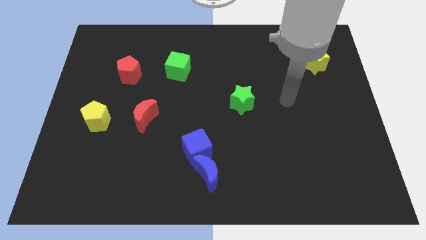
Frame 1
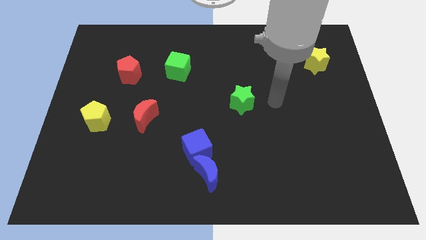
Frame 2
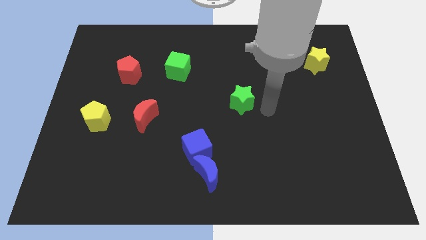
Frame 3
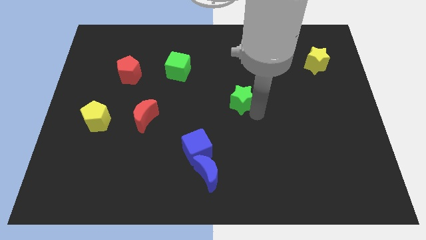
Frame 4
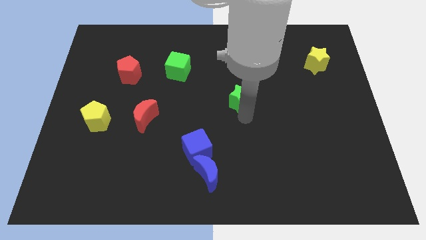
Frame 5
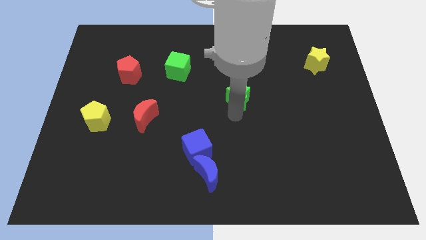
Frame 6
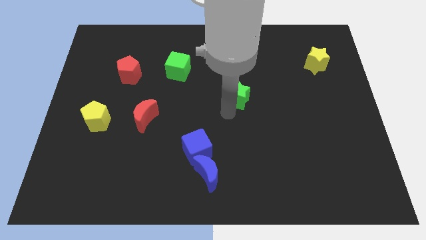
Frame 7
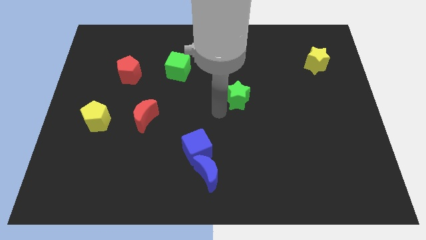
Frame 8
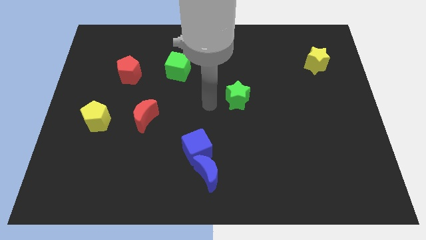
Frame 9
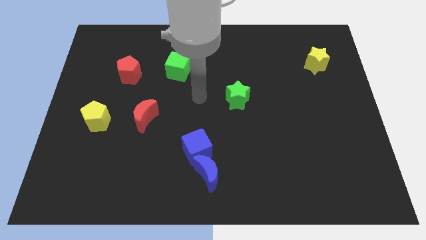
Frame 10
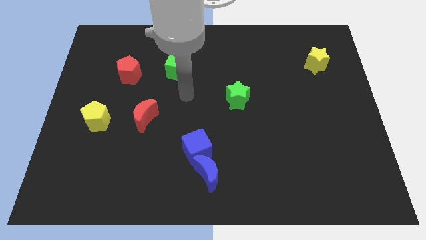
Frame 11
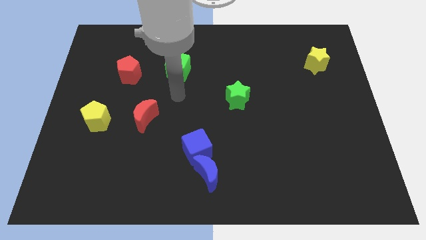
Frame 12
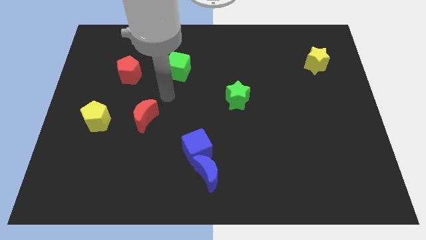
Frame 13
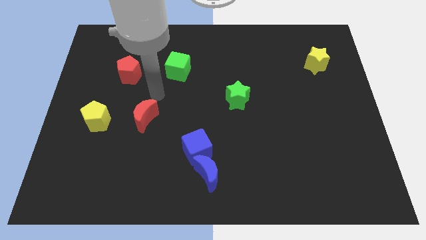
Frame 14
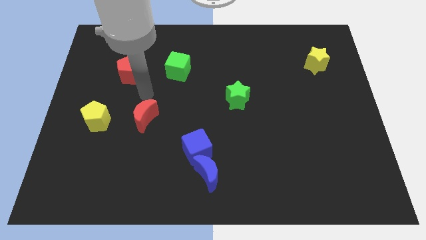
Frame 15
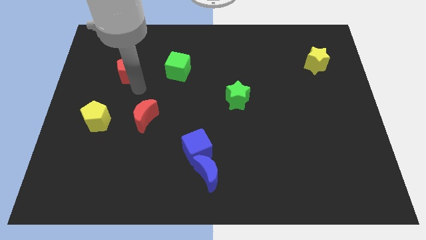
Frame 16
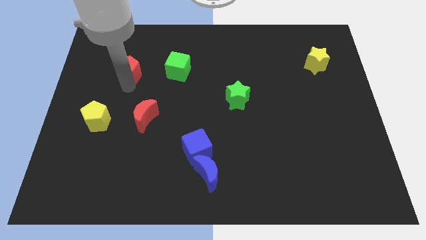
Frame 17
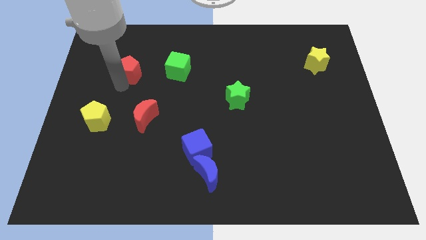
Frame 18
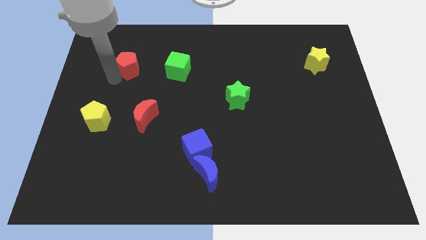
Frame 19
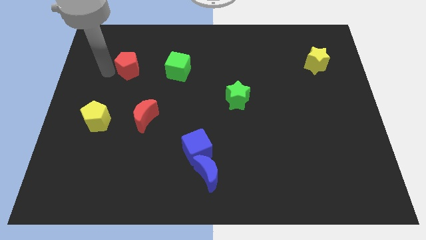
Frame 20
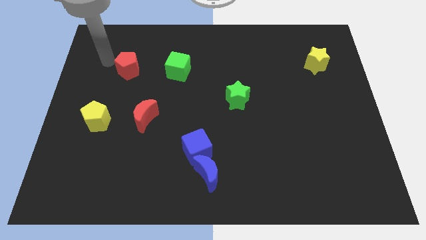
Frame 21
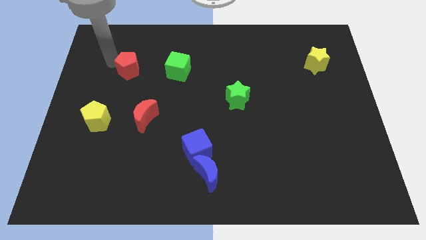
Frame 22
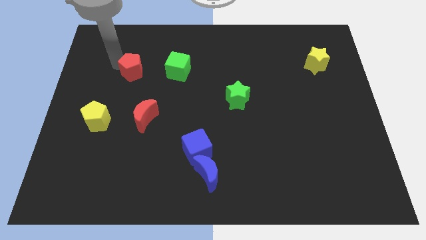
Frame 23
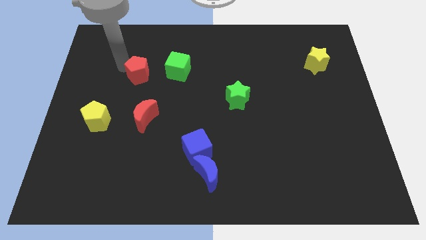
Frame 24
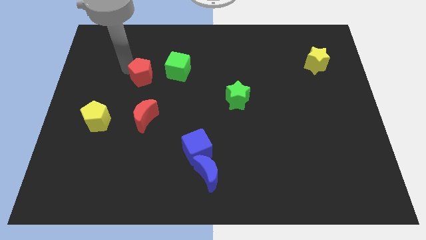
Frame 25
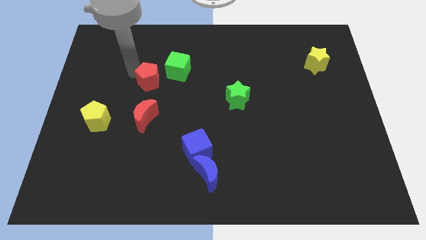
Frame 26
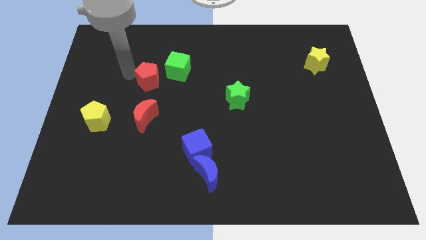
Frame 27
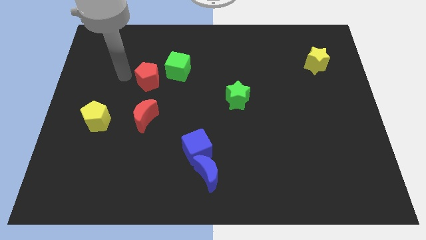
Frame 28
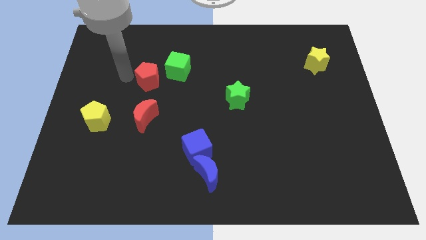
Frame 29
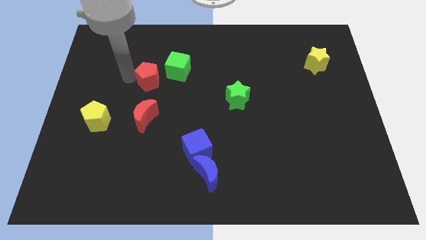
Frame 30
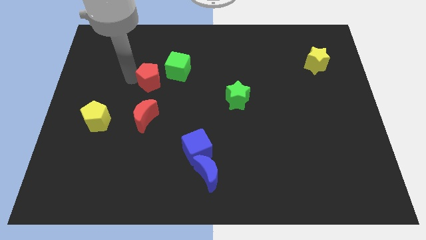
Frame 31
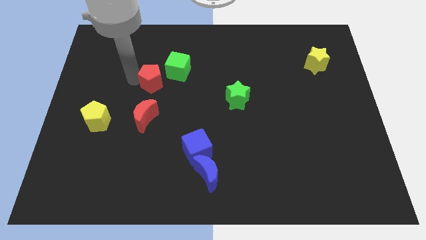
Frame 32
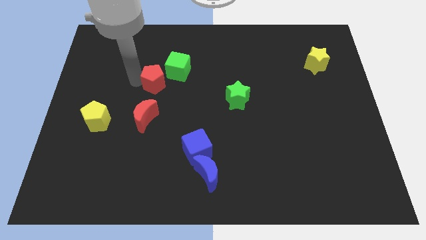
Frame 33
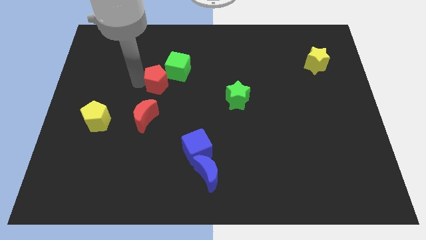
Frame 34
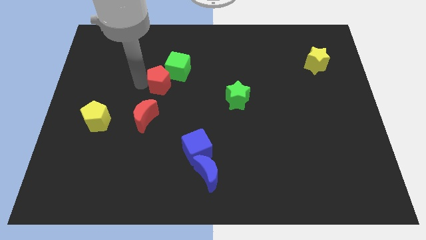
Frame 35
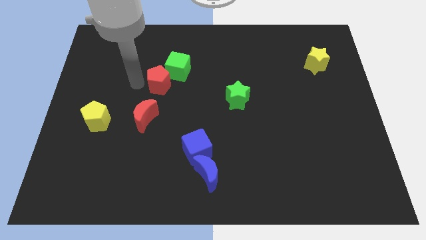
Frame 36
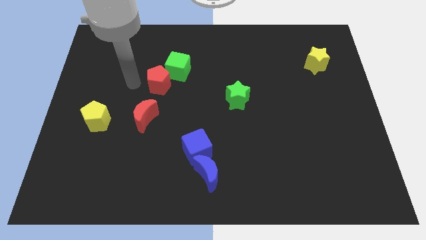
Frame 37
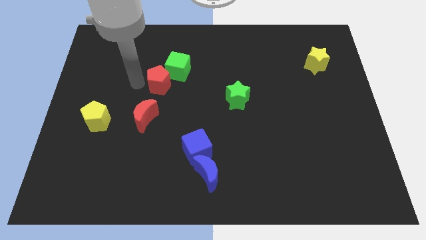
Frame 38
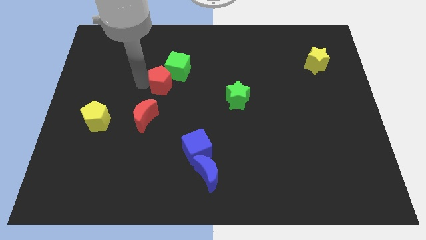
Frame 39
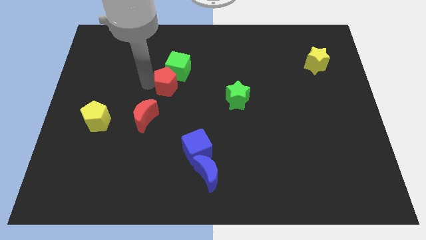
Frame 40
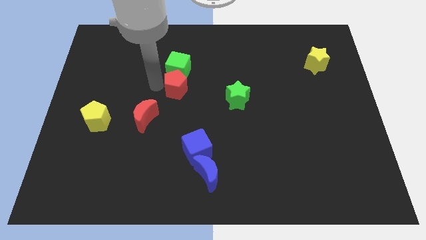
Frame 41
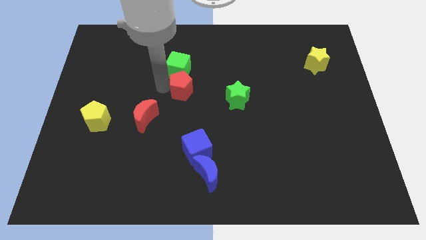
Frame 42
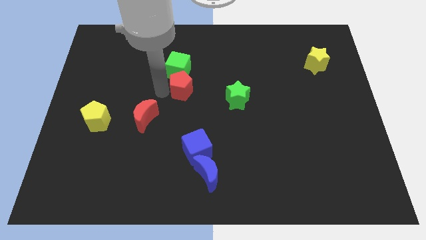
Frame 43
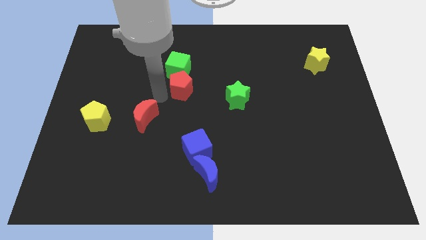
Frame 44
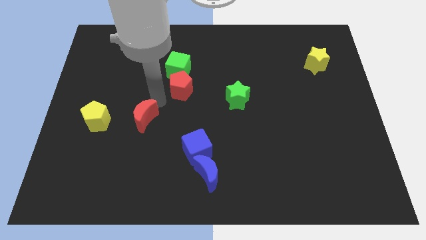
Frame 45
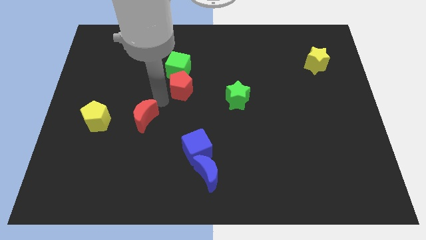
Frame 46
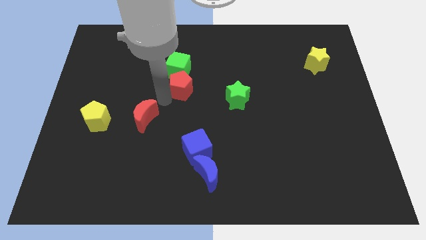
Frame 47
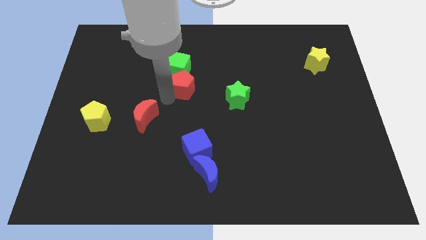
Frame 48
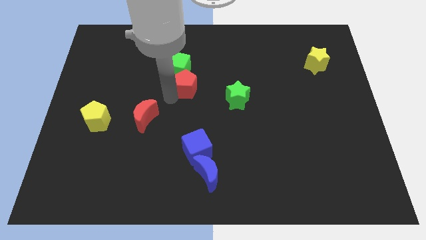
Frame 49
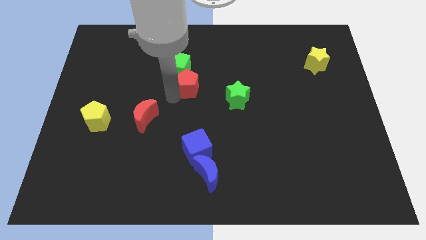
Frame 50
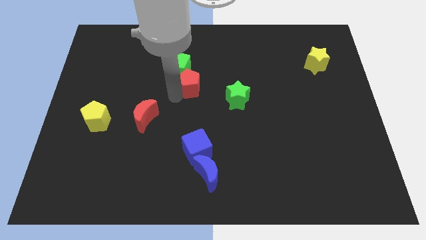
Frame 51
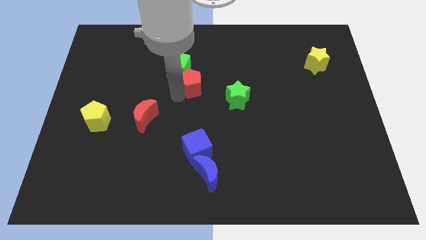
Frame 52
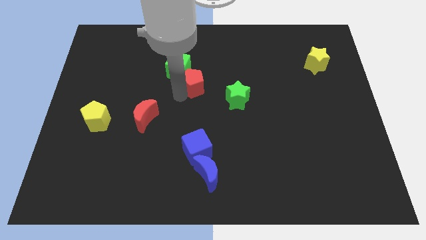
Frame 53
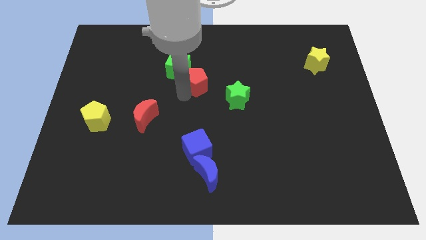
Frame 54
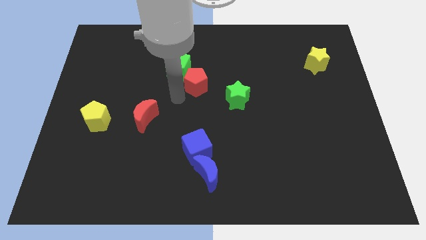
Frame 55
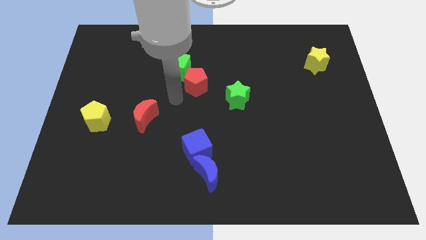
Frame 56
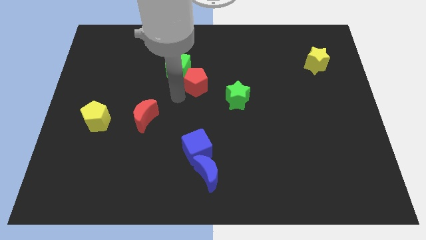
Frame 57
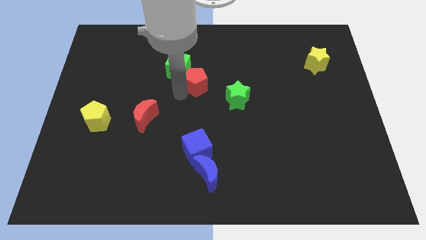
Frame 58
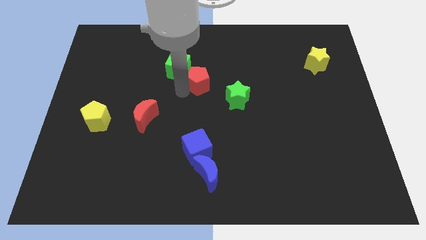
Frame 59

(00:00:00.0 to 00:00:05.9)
put the red pentagon to the right of the green cube
